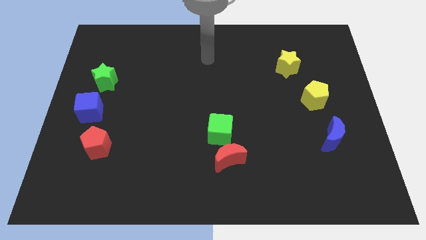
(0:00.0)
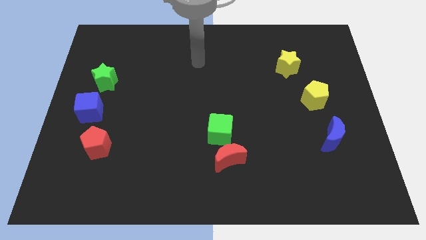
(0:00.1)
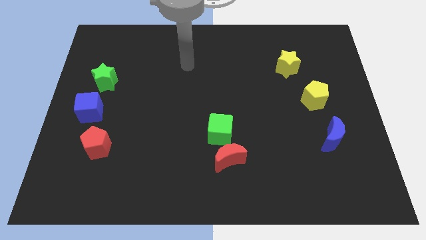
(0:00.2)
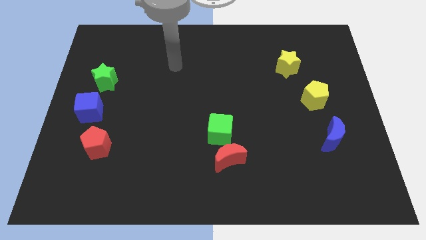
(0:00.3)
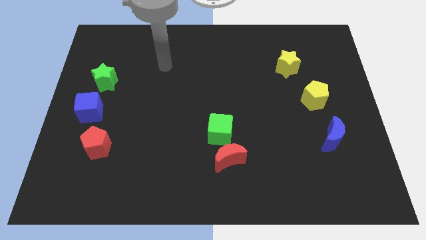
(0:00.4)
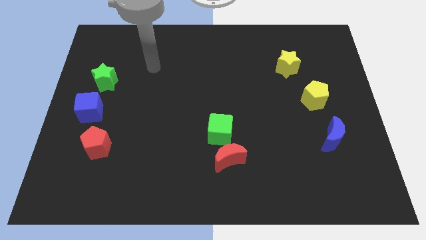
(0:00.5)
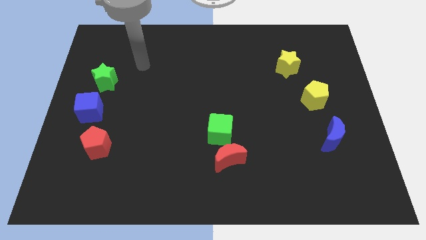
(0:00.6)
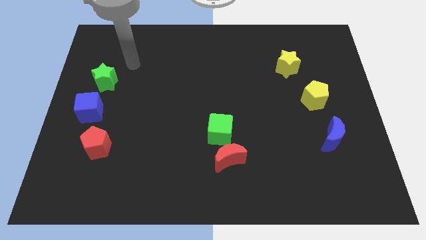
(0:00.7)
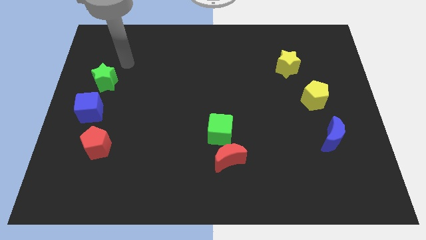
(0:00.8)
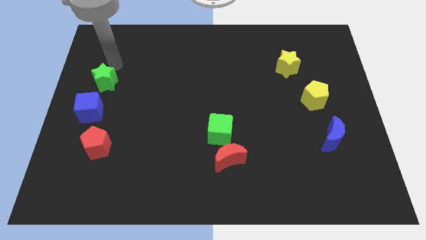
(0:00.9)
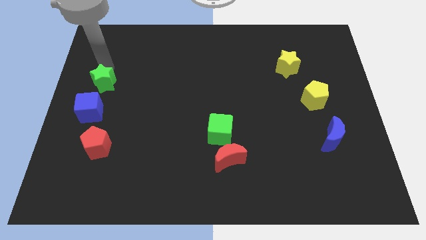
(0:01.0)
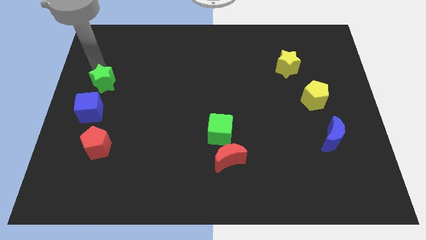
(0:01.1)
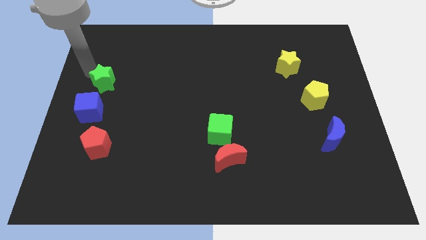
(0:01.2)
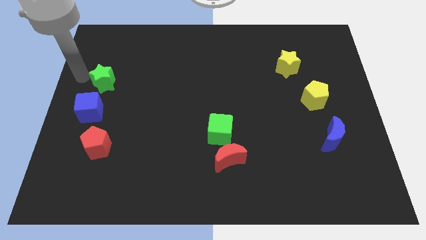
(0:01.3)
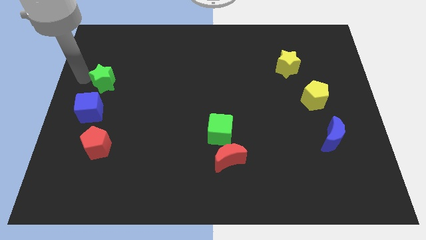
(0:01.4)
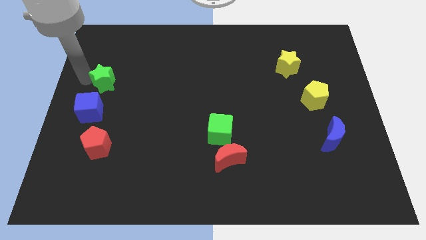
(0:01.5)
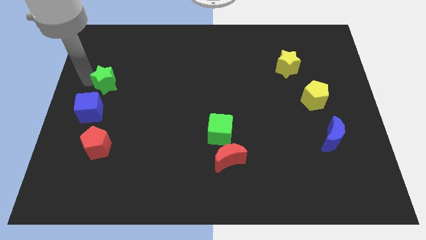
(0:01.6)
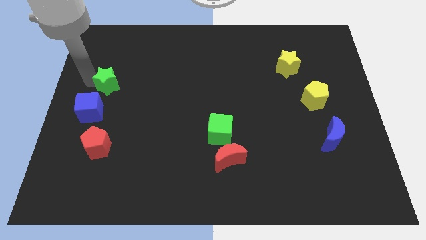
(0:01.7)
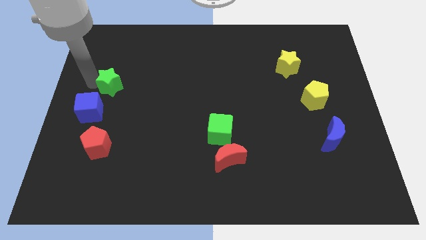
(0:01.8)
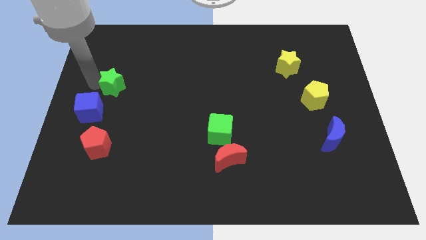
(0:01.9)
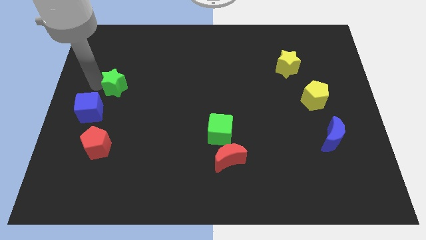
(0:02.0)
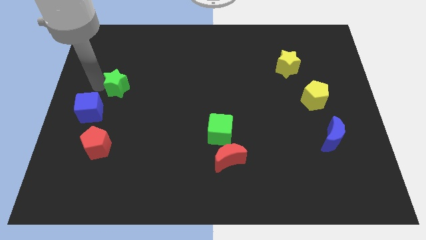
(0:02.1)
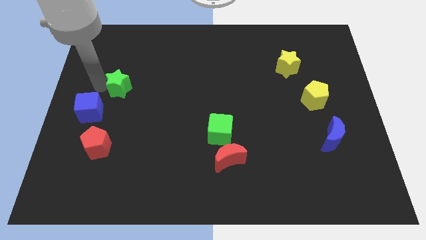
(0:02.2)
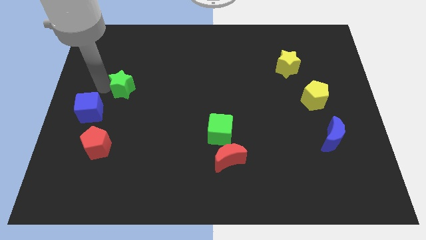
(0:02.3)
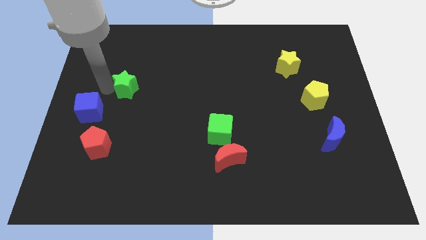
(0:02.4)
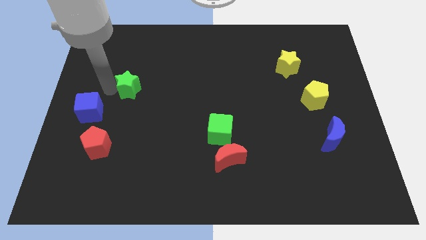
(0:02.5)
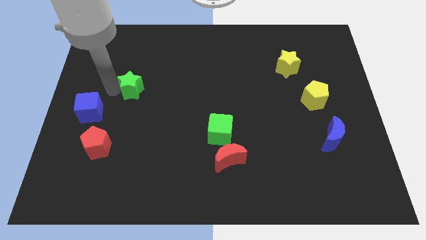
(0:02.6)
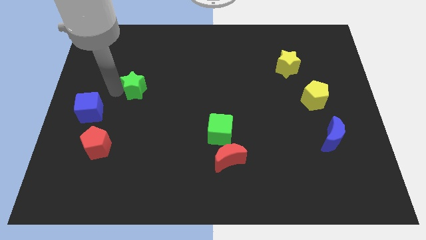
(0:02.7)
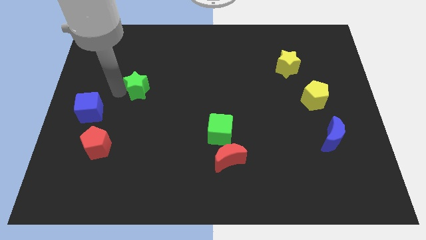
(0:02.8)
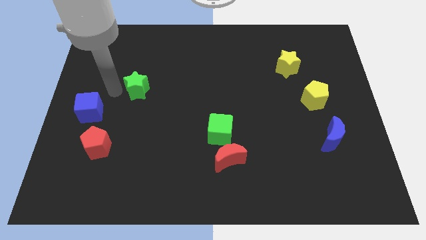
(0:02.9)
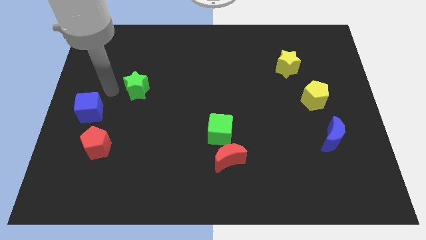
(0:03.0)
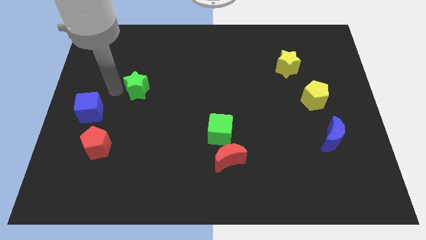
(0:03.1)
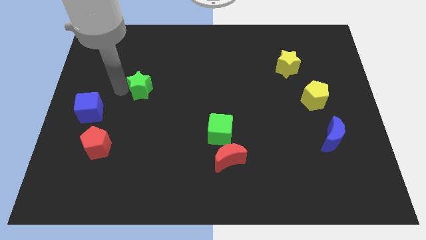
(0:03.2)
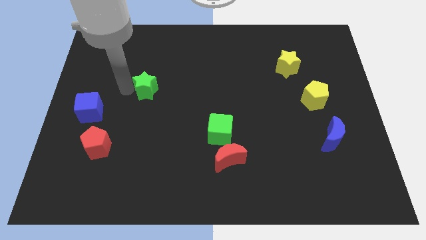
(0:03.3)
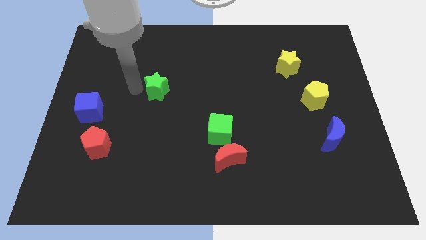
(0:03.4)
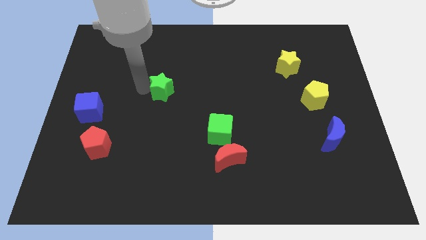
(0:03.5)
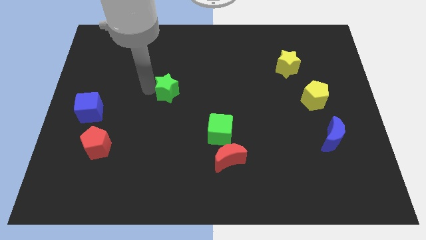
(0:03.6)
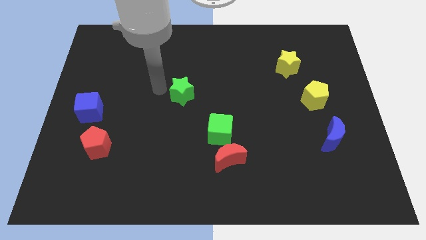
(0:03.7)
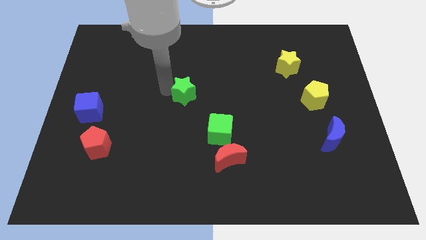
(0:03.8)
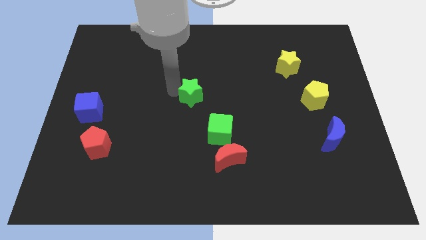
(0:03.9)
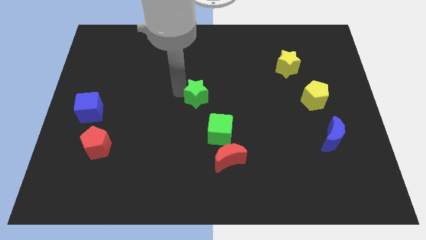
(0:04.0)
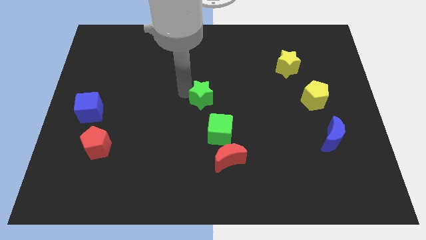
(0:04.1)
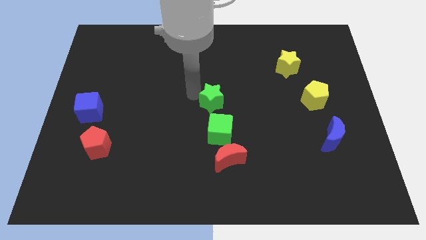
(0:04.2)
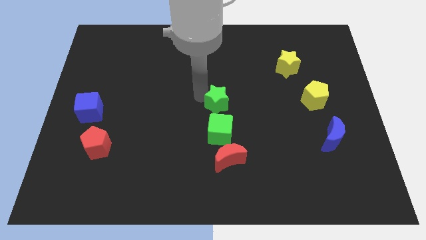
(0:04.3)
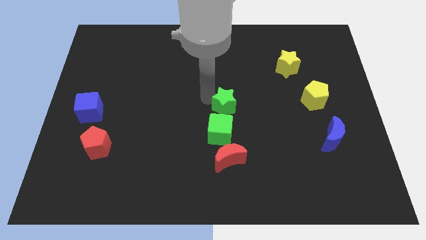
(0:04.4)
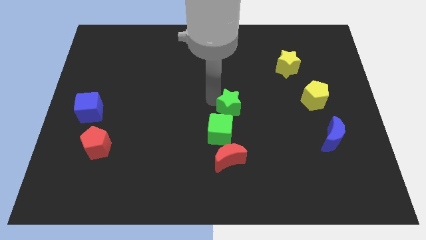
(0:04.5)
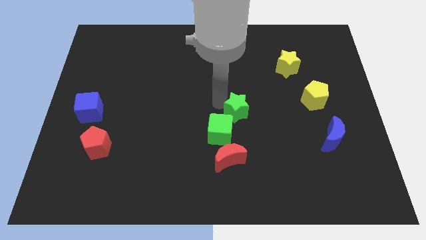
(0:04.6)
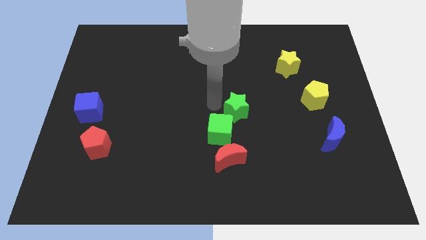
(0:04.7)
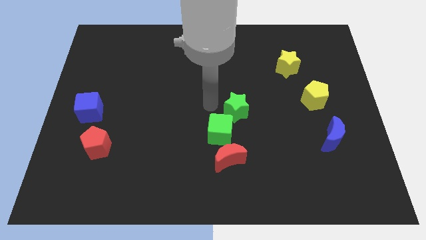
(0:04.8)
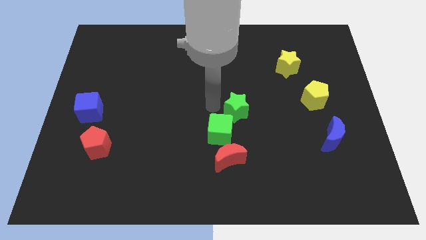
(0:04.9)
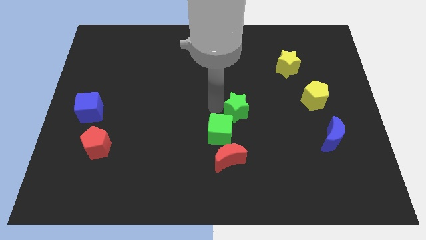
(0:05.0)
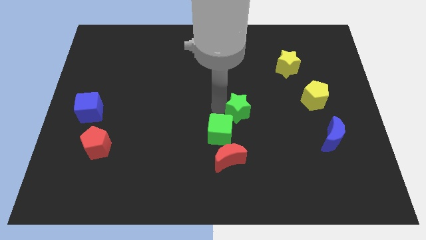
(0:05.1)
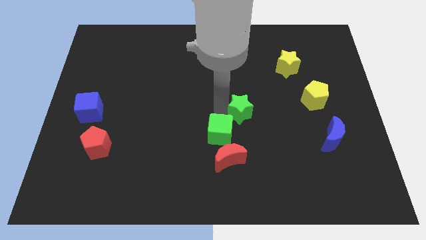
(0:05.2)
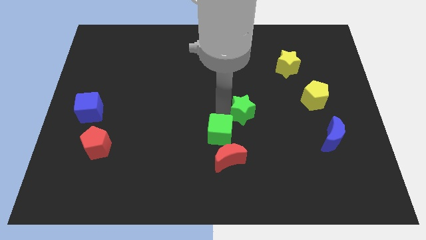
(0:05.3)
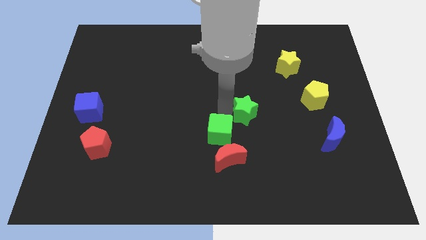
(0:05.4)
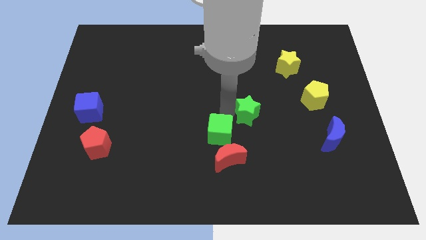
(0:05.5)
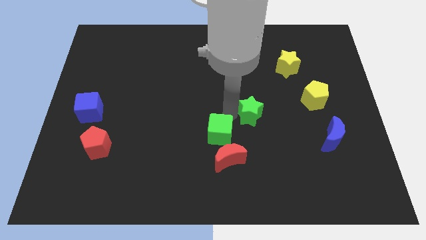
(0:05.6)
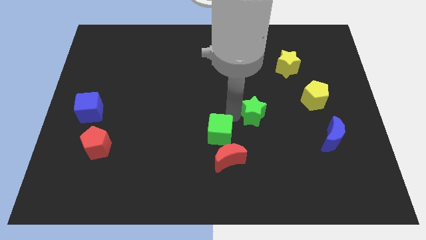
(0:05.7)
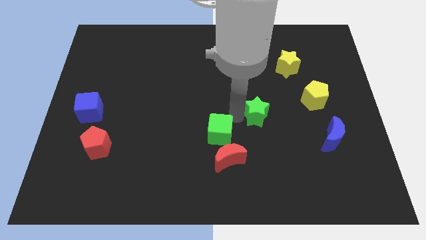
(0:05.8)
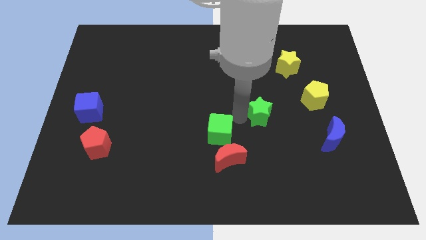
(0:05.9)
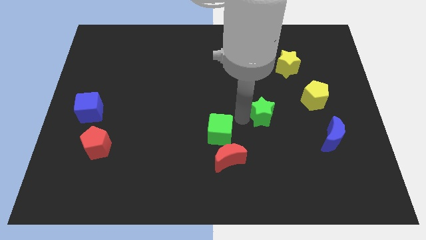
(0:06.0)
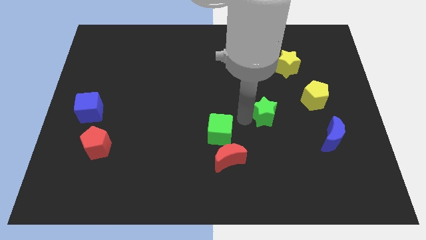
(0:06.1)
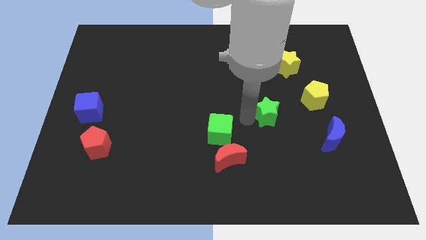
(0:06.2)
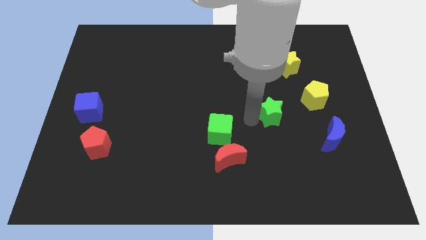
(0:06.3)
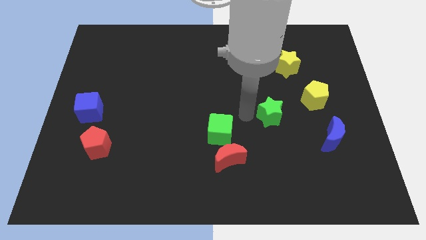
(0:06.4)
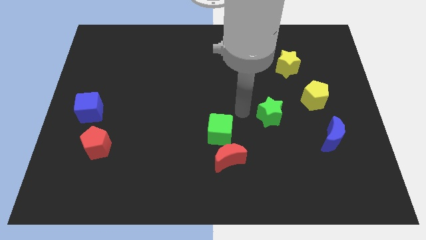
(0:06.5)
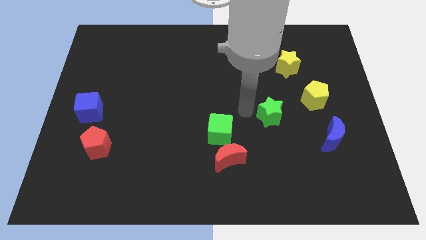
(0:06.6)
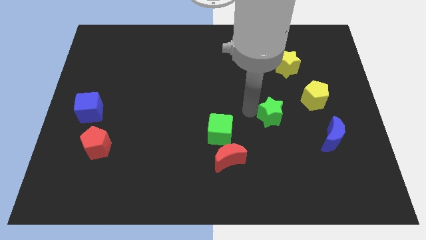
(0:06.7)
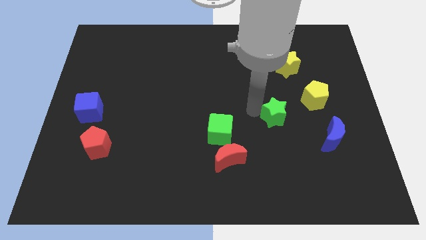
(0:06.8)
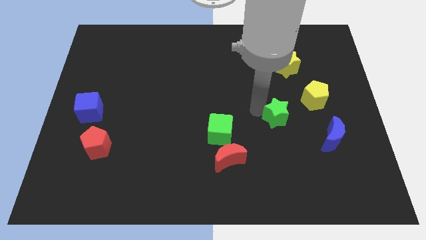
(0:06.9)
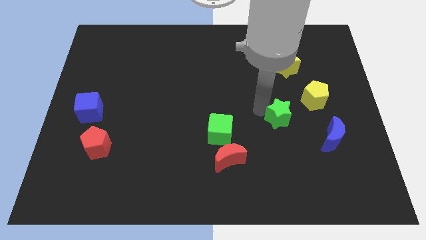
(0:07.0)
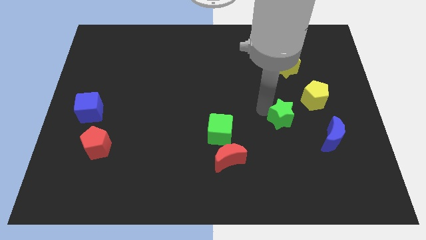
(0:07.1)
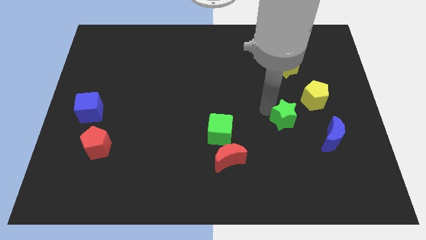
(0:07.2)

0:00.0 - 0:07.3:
push the green star diagonally up and to the left of the blue moon

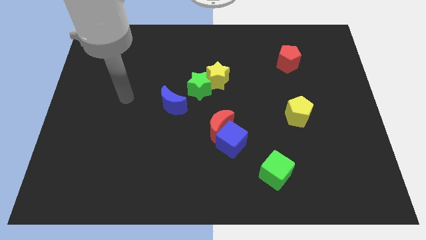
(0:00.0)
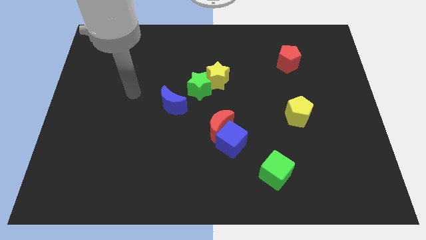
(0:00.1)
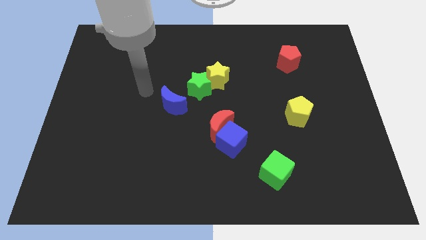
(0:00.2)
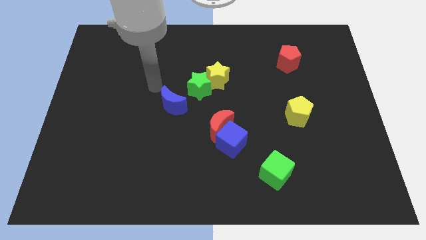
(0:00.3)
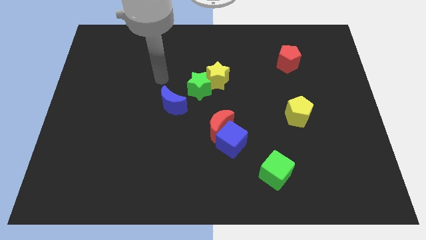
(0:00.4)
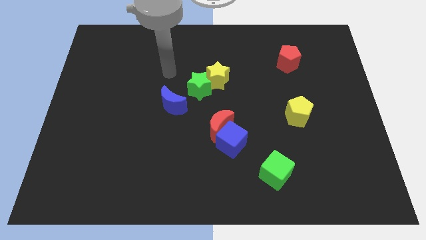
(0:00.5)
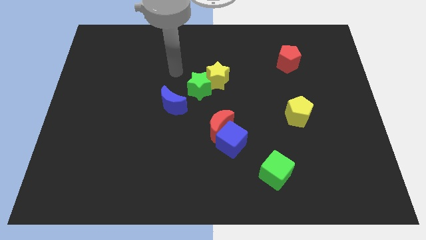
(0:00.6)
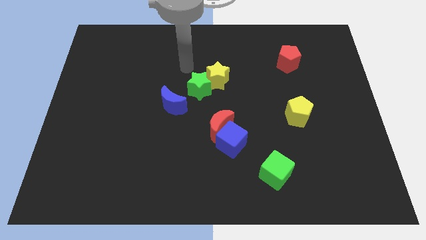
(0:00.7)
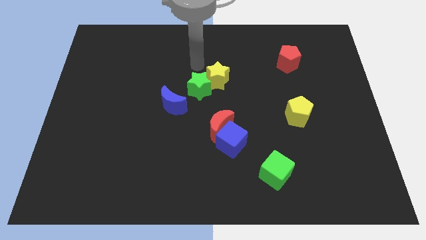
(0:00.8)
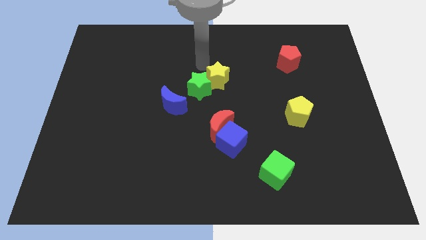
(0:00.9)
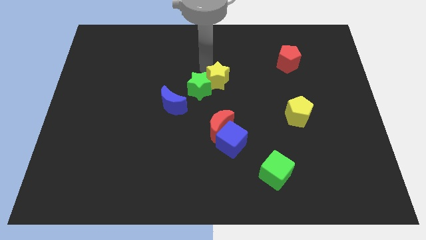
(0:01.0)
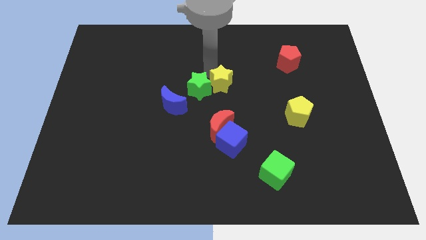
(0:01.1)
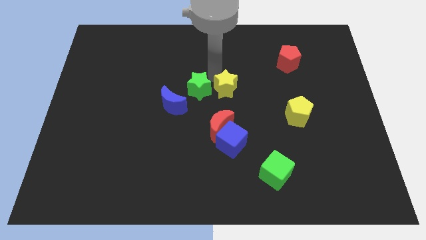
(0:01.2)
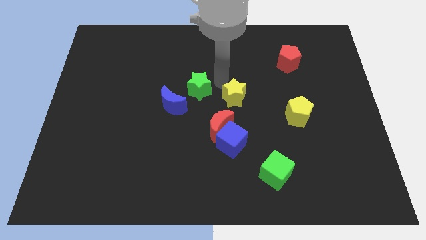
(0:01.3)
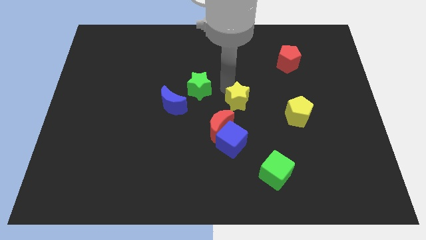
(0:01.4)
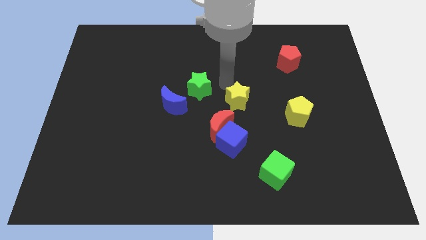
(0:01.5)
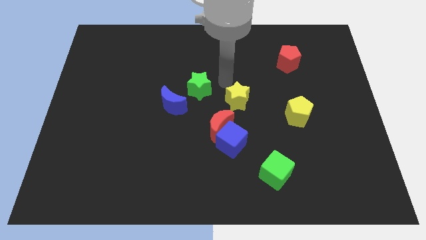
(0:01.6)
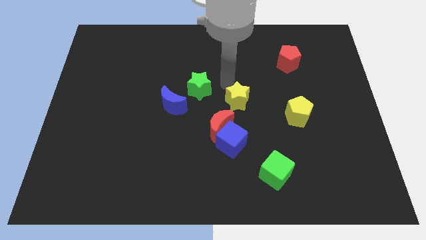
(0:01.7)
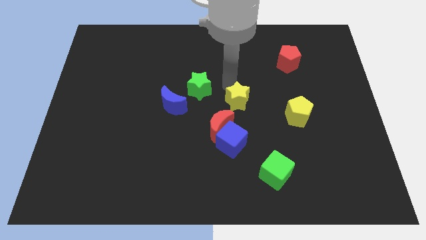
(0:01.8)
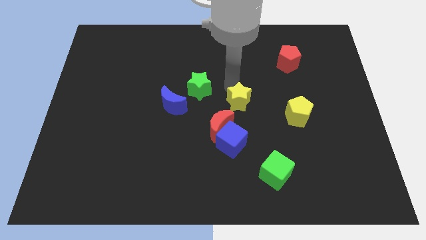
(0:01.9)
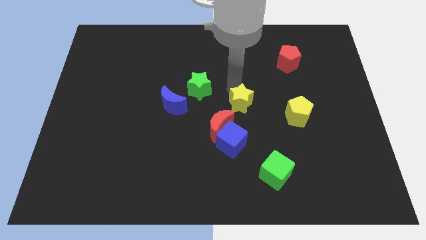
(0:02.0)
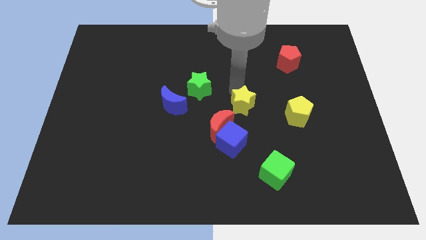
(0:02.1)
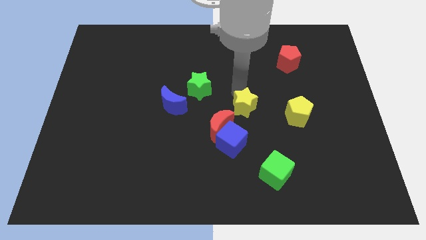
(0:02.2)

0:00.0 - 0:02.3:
slide the yellow star to the top right side of the blue cube
